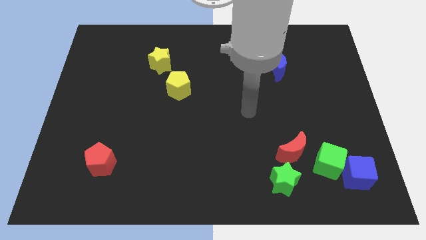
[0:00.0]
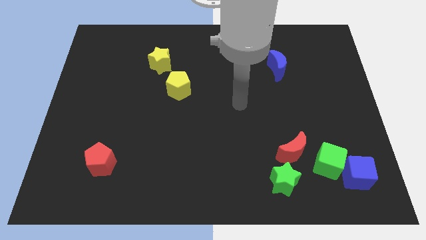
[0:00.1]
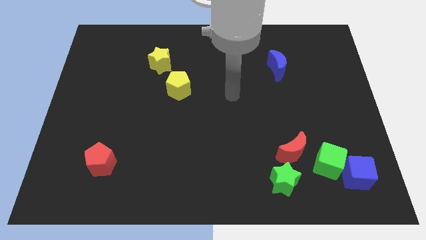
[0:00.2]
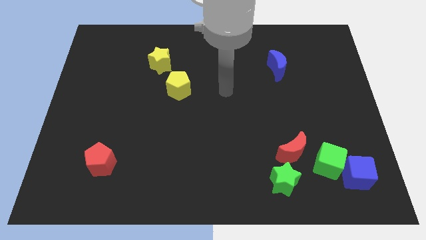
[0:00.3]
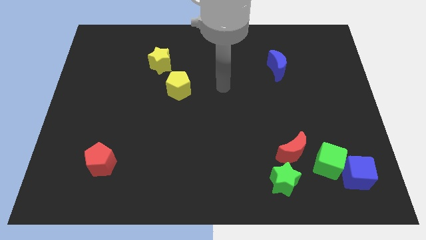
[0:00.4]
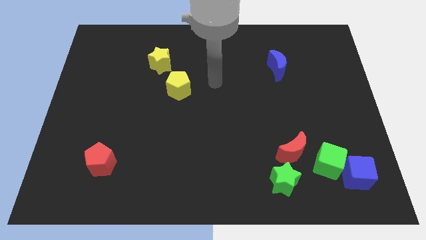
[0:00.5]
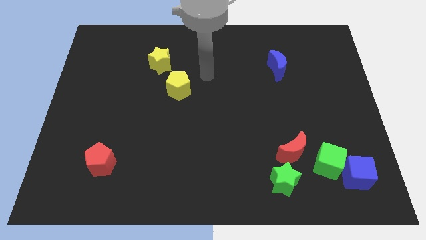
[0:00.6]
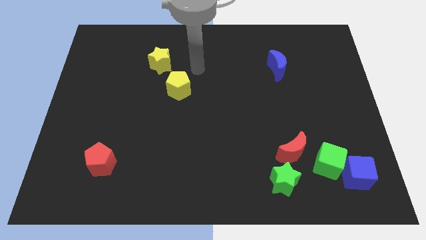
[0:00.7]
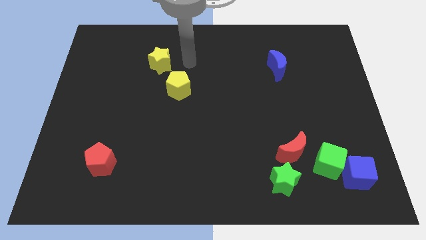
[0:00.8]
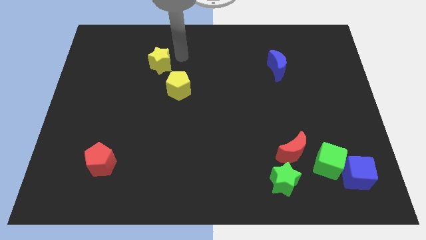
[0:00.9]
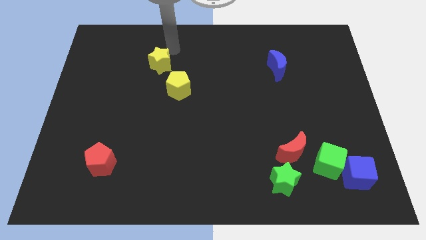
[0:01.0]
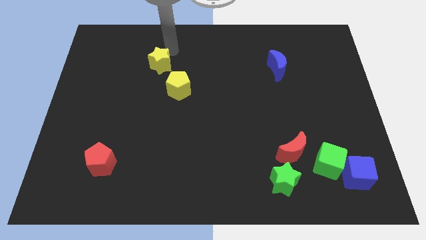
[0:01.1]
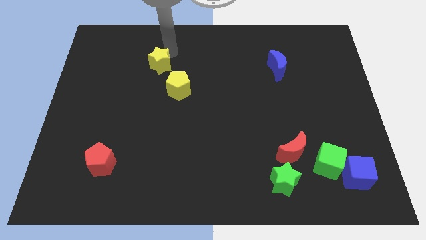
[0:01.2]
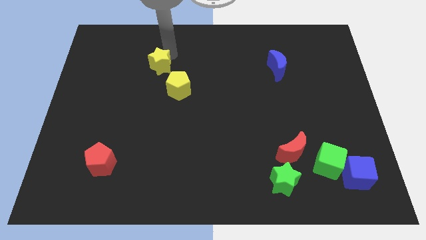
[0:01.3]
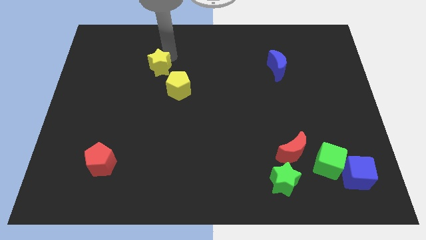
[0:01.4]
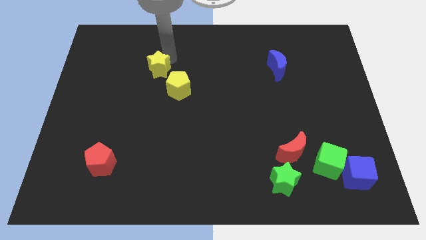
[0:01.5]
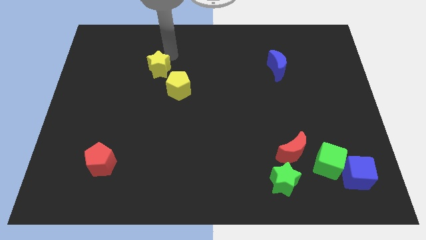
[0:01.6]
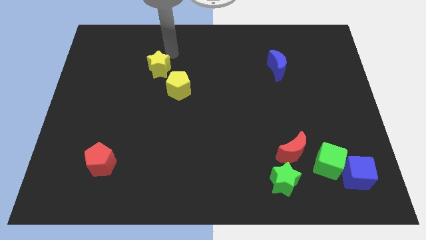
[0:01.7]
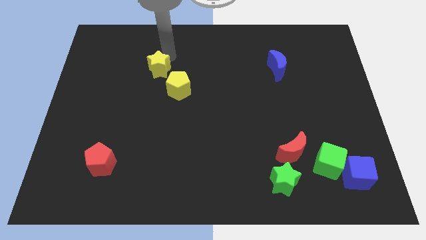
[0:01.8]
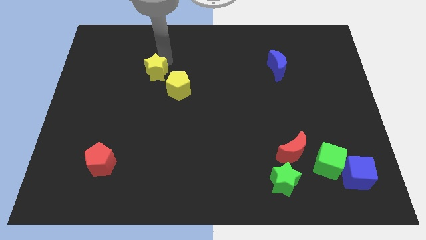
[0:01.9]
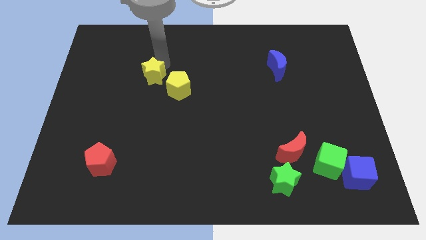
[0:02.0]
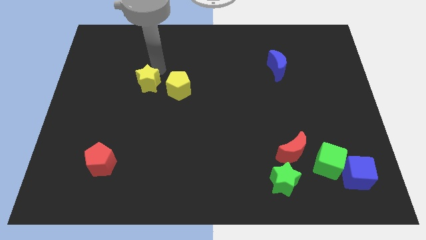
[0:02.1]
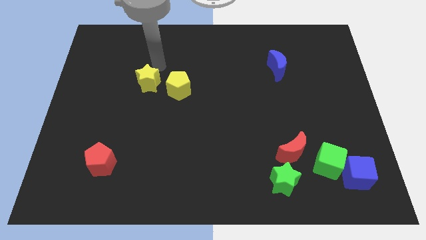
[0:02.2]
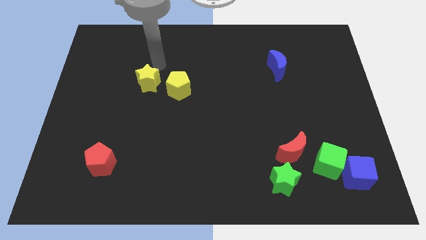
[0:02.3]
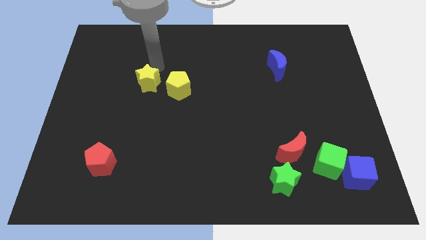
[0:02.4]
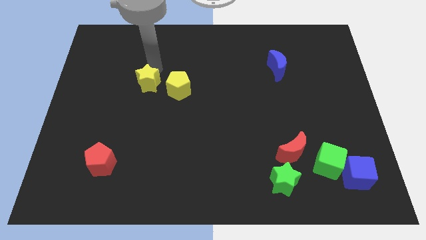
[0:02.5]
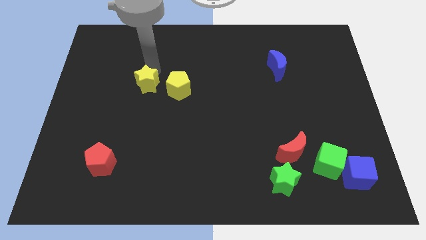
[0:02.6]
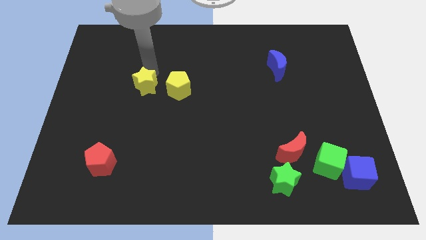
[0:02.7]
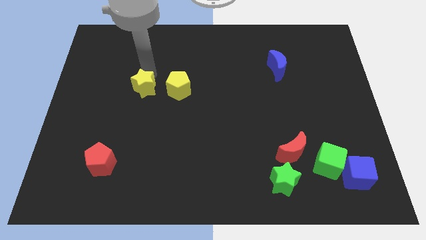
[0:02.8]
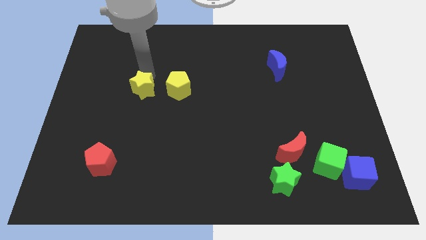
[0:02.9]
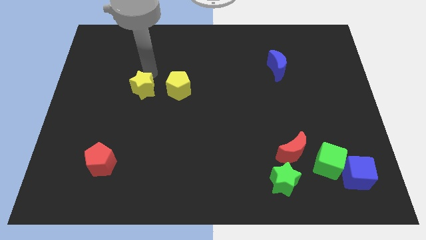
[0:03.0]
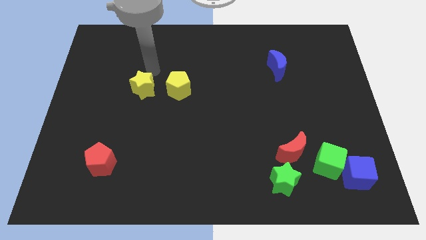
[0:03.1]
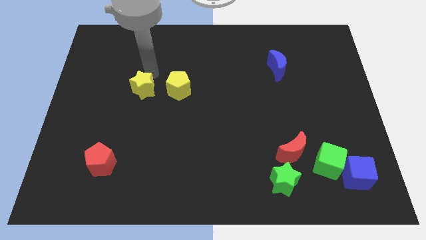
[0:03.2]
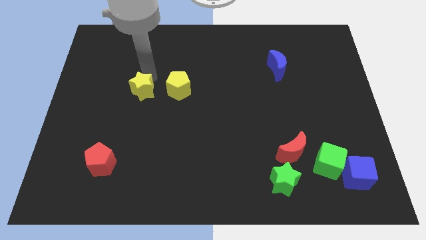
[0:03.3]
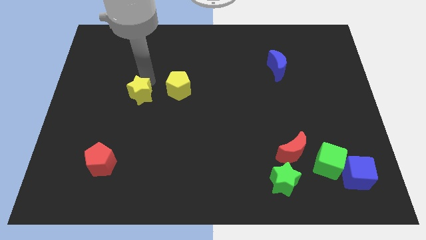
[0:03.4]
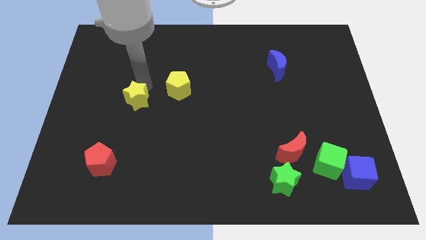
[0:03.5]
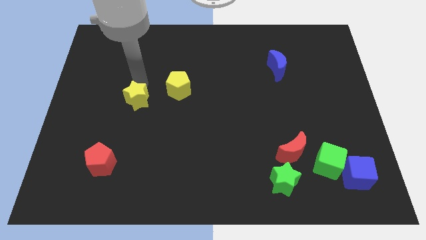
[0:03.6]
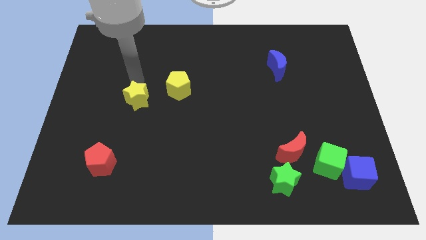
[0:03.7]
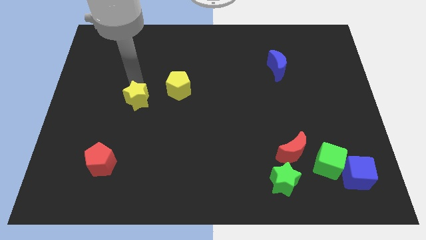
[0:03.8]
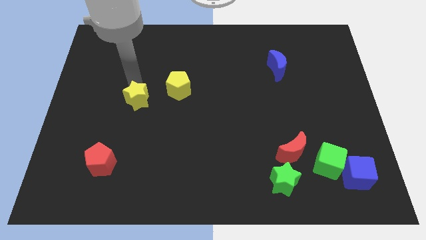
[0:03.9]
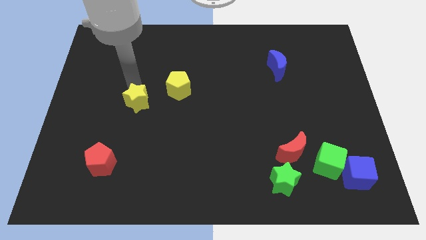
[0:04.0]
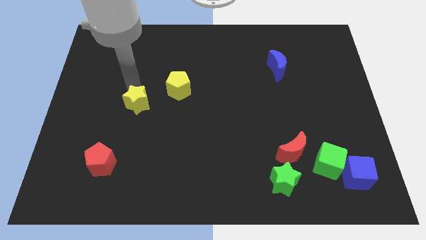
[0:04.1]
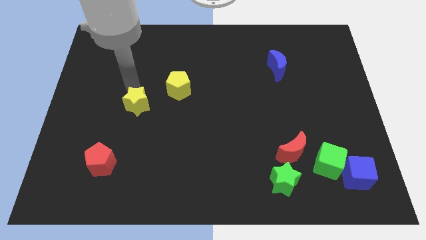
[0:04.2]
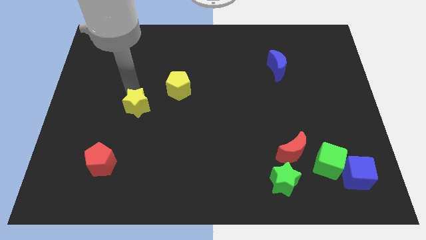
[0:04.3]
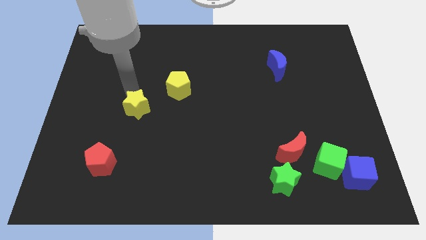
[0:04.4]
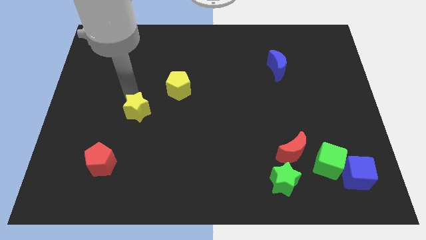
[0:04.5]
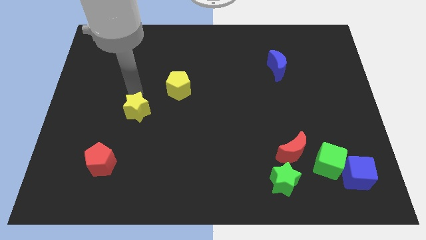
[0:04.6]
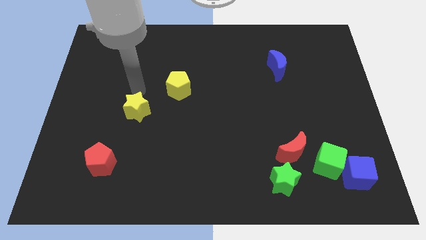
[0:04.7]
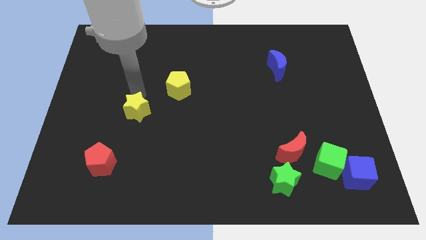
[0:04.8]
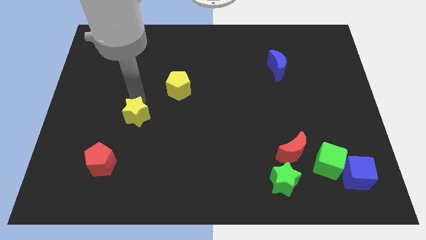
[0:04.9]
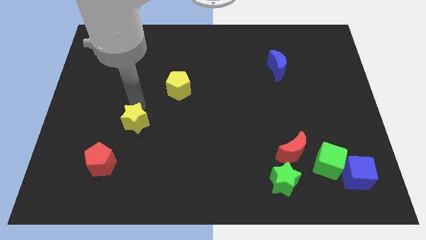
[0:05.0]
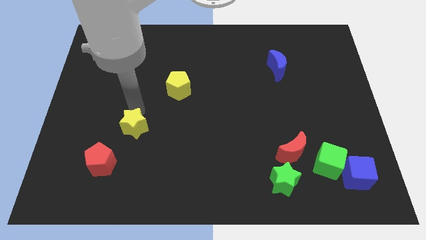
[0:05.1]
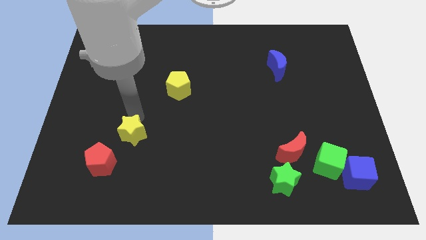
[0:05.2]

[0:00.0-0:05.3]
push the yellow star down

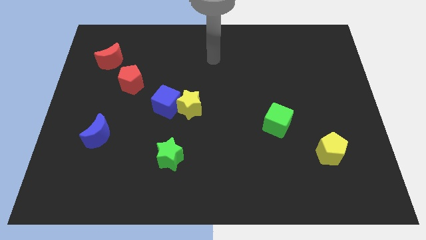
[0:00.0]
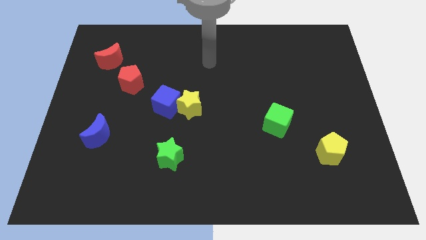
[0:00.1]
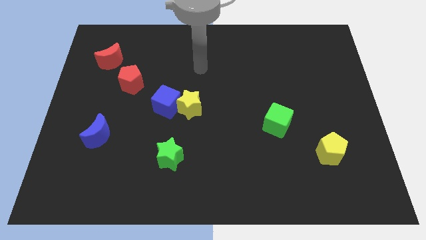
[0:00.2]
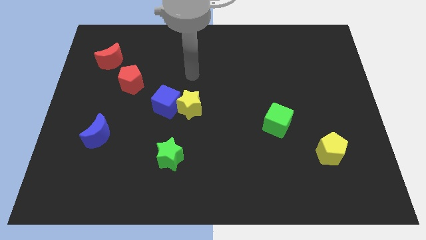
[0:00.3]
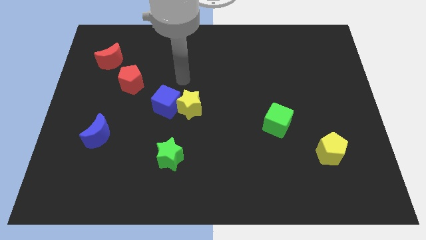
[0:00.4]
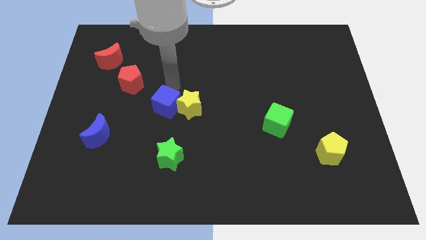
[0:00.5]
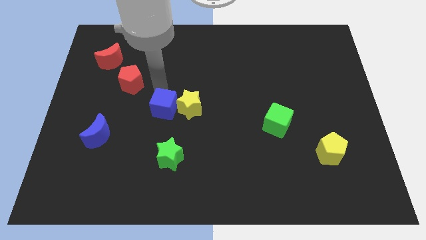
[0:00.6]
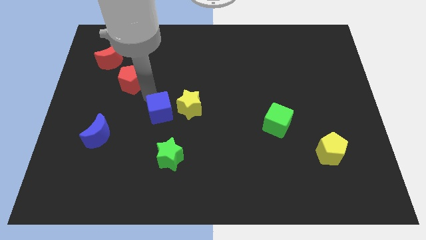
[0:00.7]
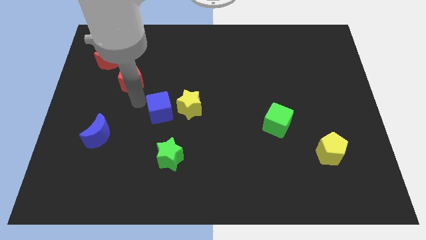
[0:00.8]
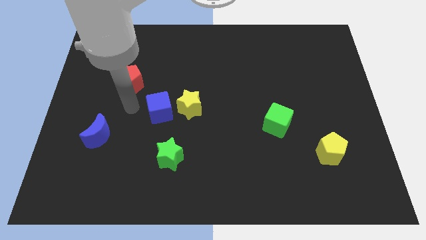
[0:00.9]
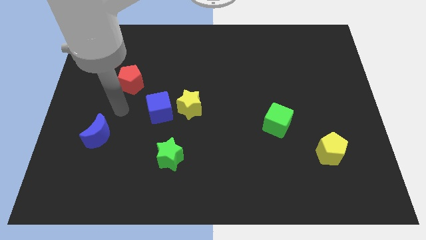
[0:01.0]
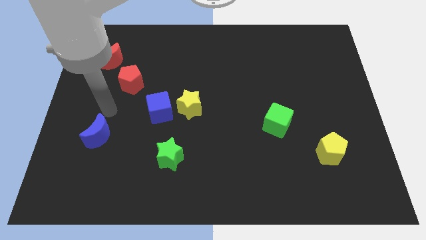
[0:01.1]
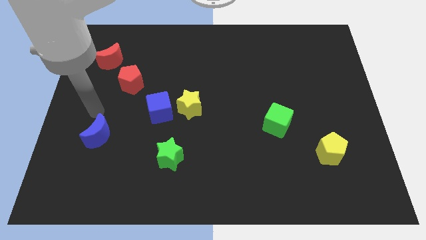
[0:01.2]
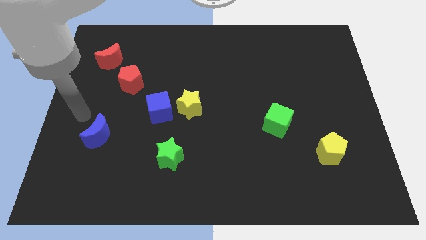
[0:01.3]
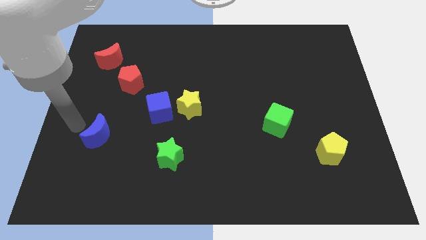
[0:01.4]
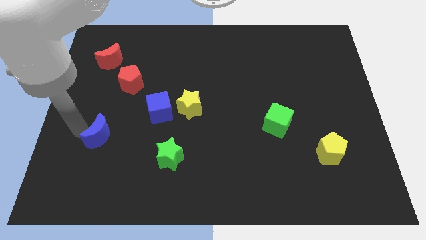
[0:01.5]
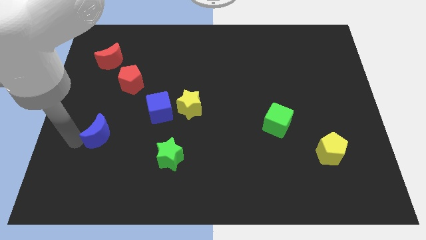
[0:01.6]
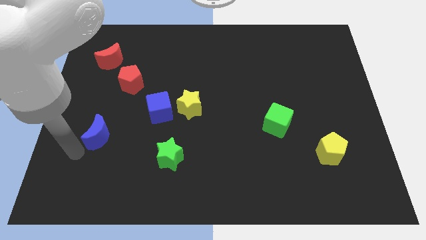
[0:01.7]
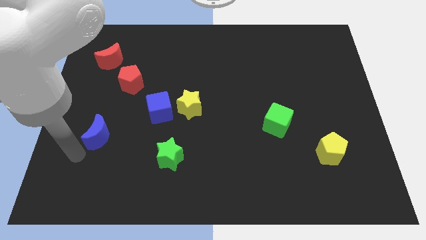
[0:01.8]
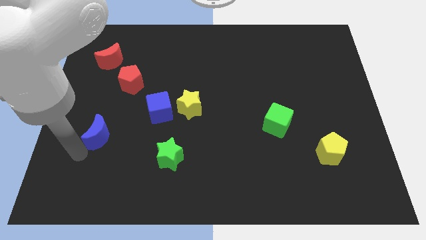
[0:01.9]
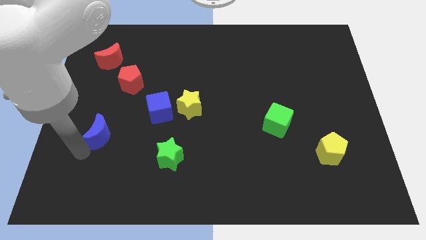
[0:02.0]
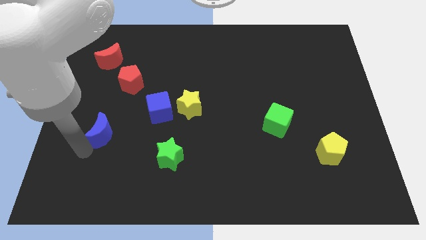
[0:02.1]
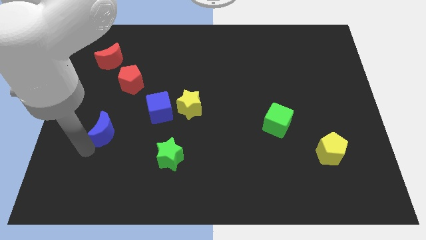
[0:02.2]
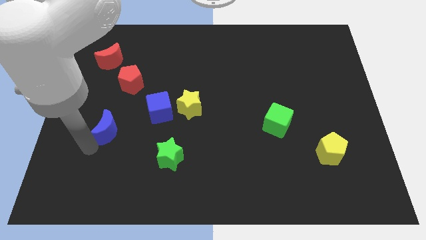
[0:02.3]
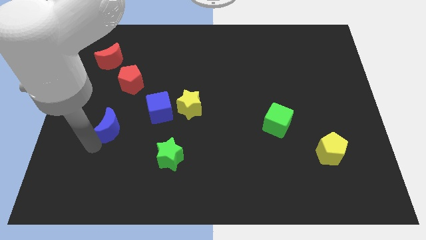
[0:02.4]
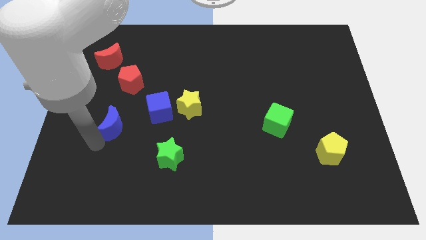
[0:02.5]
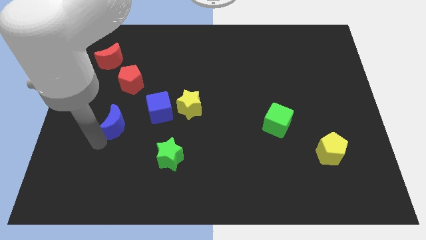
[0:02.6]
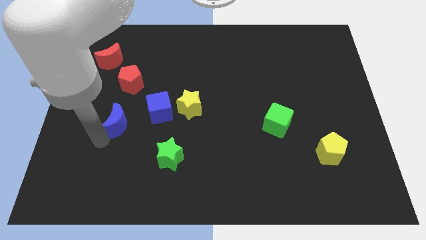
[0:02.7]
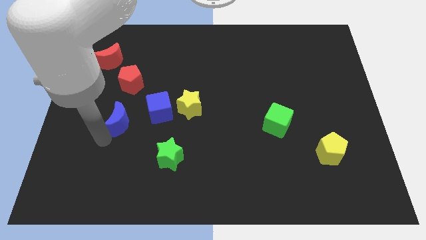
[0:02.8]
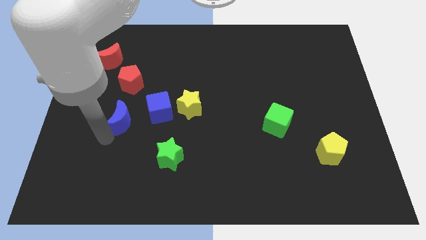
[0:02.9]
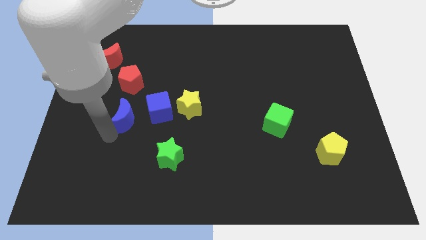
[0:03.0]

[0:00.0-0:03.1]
slightly slide the blue moon diagonally upwards and right
